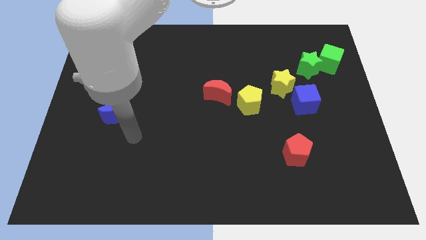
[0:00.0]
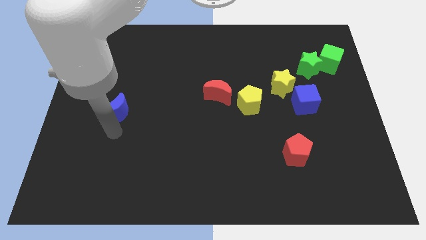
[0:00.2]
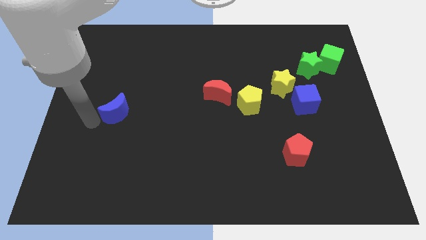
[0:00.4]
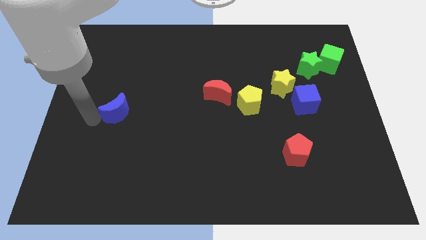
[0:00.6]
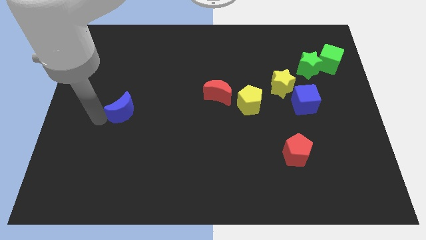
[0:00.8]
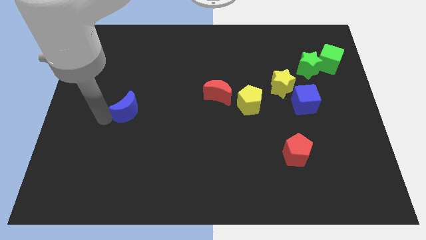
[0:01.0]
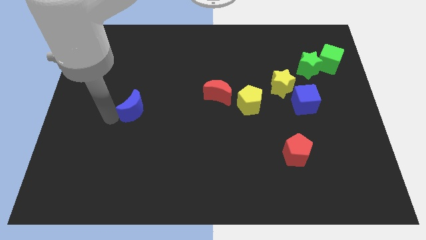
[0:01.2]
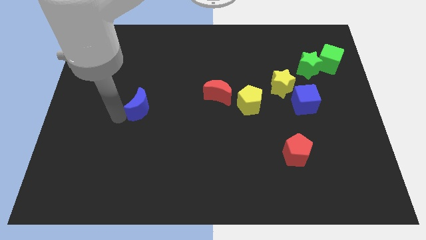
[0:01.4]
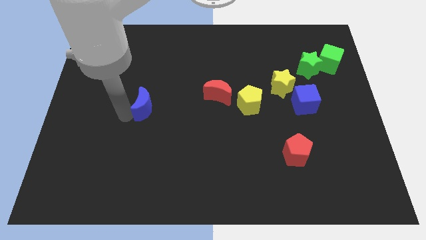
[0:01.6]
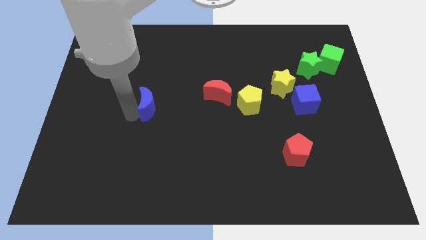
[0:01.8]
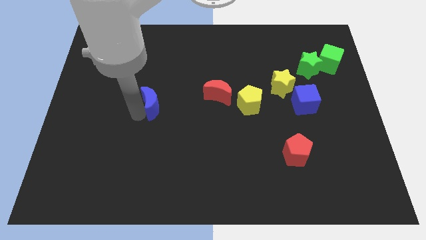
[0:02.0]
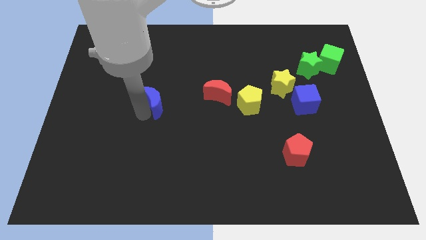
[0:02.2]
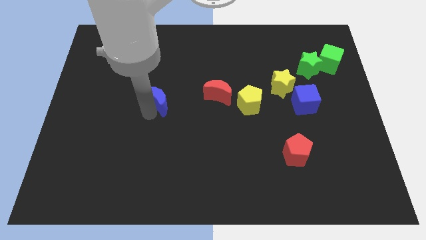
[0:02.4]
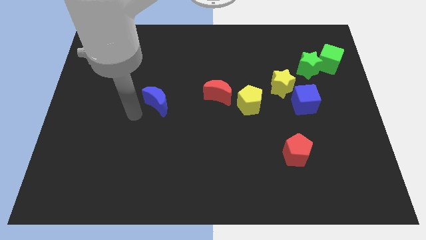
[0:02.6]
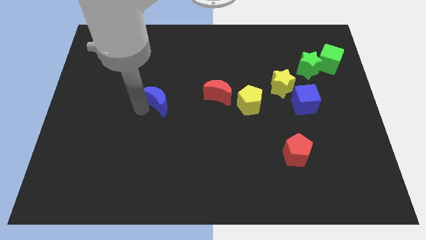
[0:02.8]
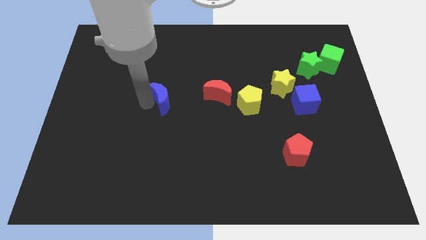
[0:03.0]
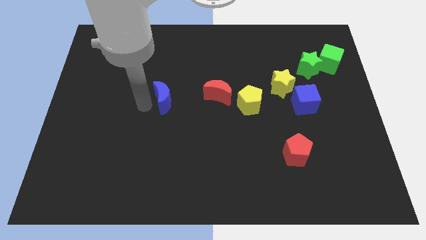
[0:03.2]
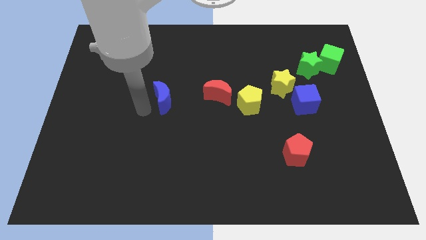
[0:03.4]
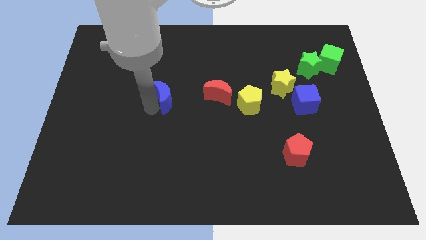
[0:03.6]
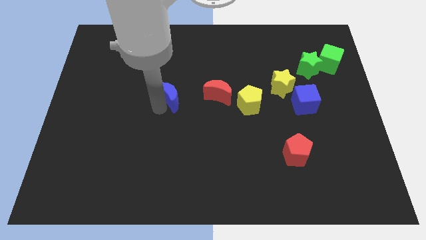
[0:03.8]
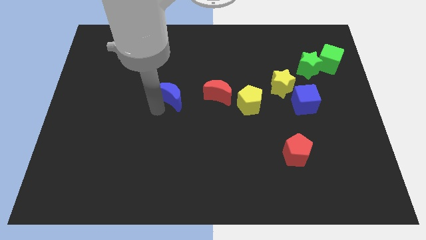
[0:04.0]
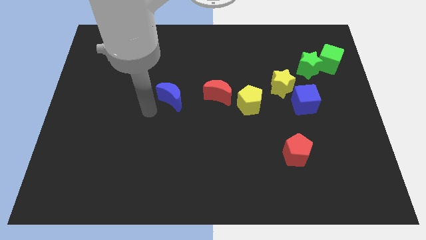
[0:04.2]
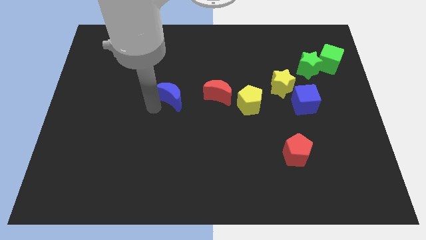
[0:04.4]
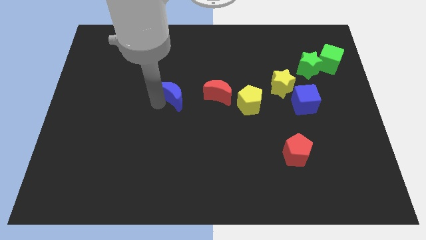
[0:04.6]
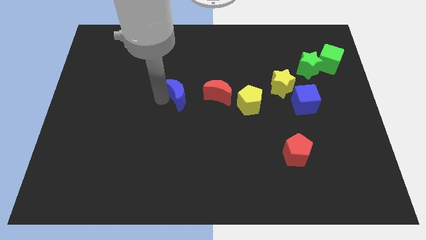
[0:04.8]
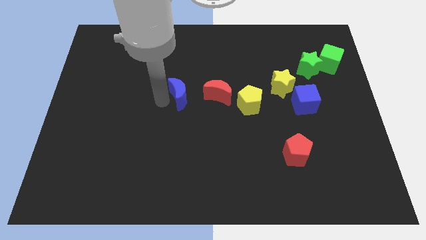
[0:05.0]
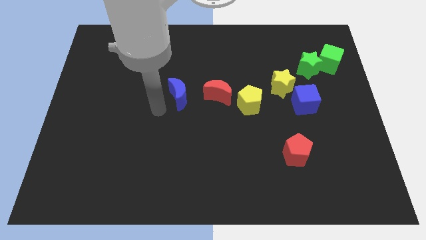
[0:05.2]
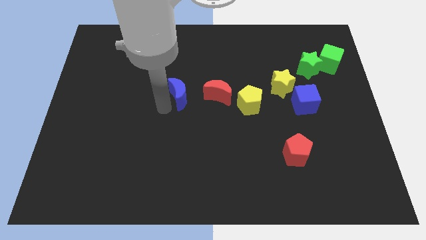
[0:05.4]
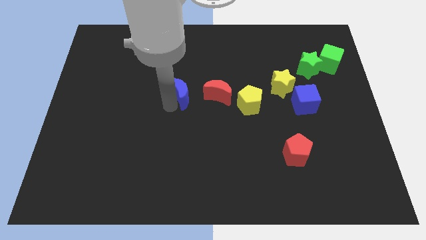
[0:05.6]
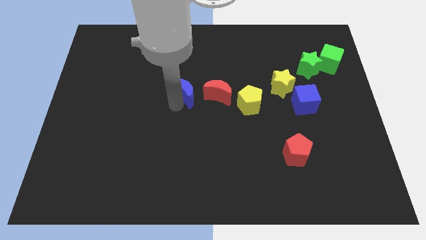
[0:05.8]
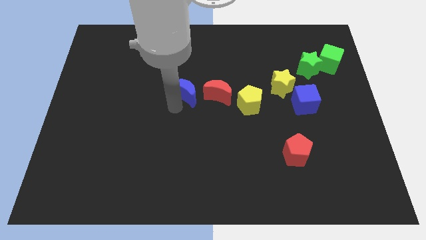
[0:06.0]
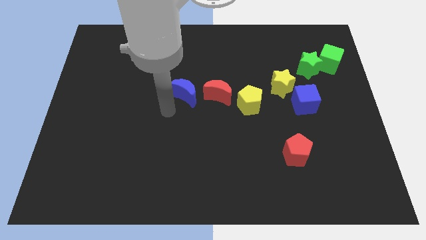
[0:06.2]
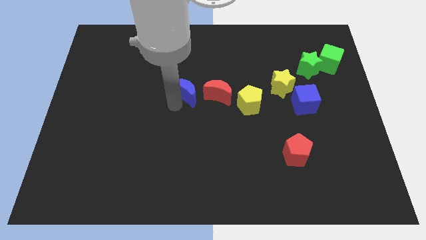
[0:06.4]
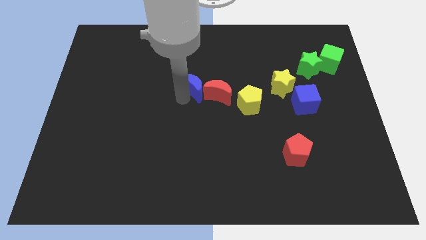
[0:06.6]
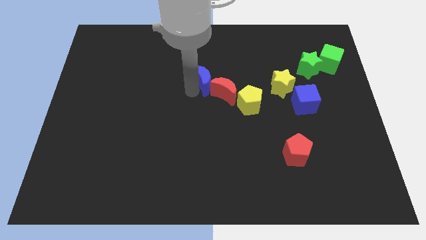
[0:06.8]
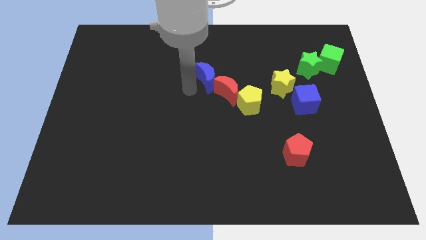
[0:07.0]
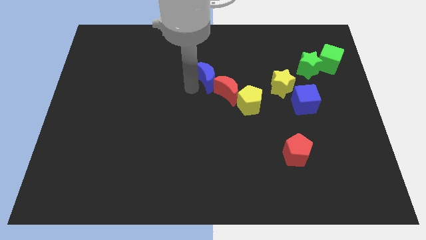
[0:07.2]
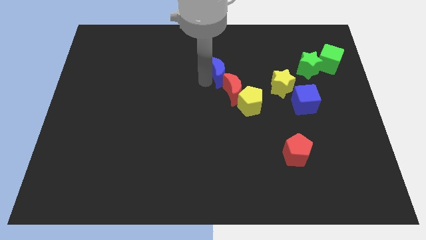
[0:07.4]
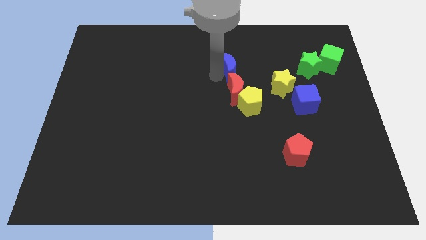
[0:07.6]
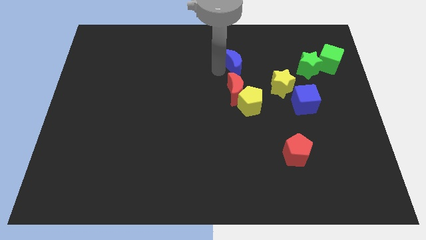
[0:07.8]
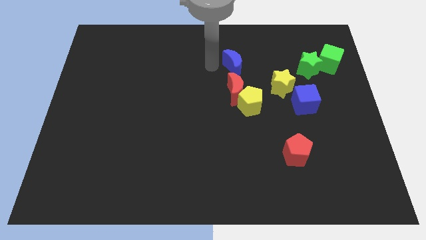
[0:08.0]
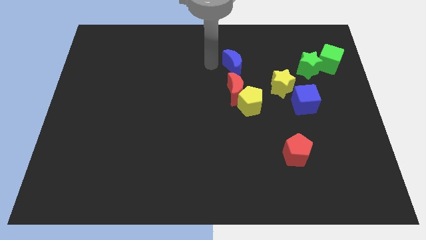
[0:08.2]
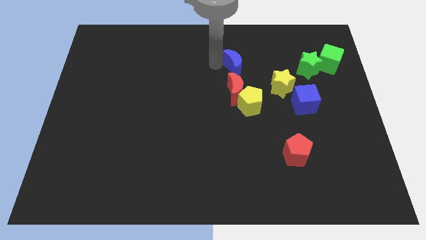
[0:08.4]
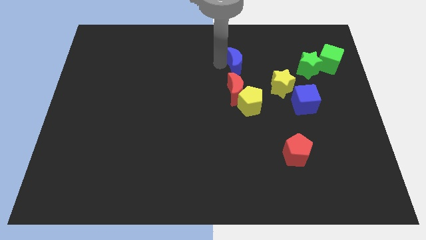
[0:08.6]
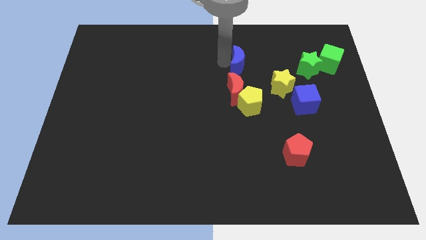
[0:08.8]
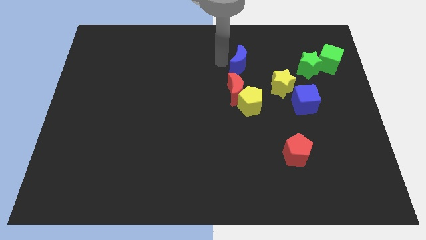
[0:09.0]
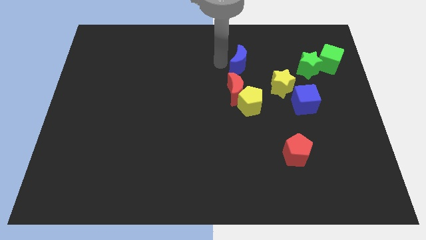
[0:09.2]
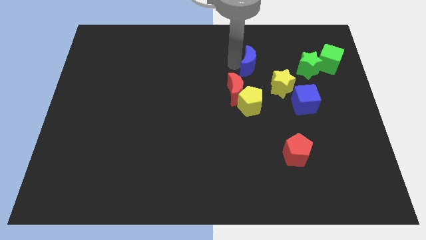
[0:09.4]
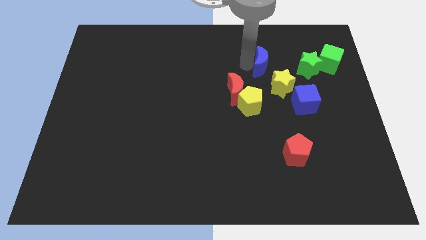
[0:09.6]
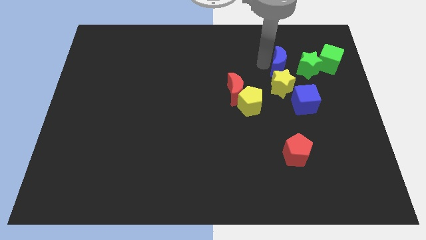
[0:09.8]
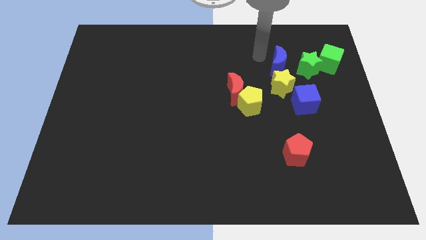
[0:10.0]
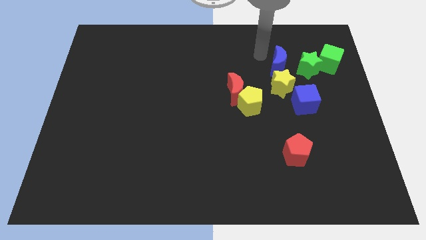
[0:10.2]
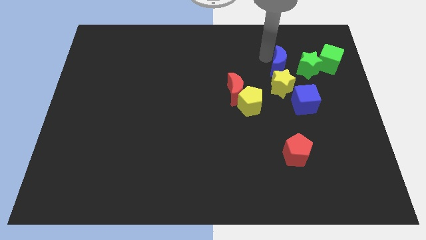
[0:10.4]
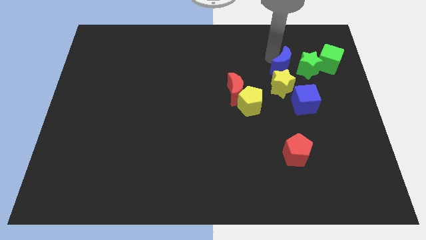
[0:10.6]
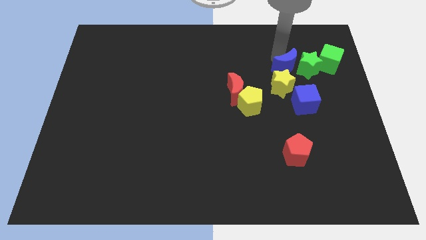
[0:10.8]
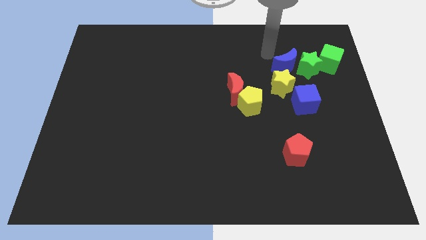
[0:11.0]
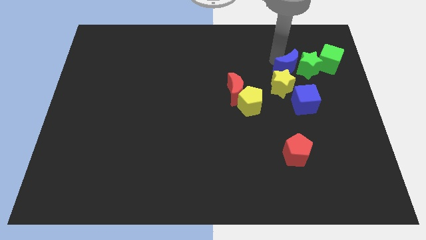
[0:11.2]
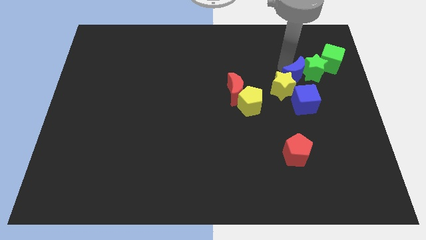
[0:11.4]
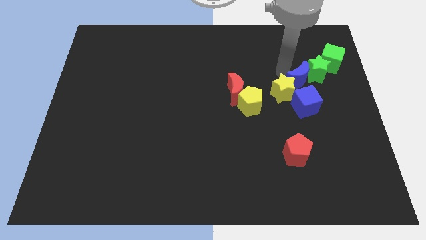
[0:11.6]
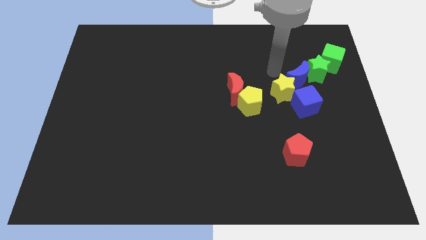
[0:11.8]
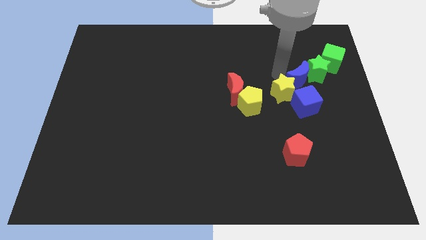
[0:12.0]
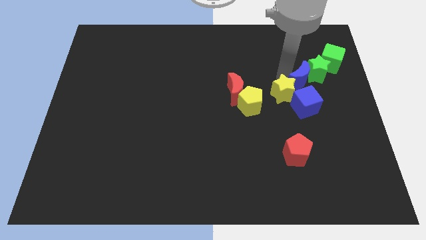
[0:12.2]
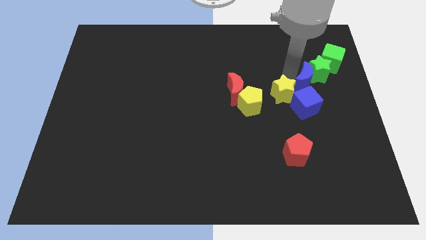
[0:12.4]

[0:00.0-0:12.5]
slide the blue moon diagonally up and to the right of the blue cube

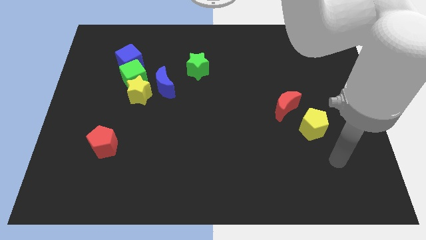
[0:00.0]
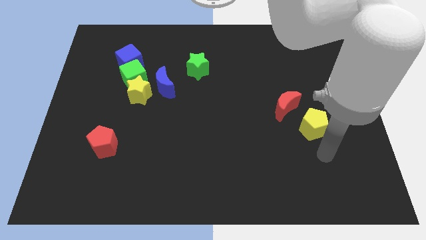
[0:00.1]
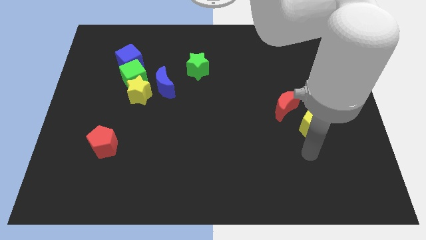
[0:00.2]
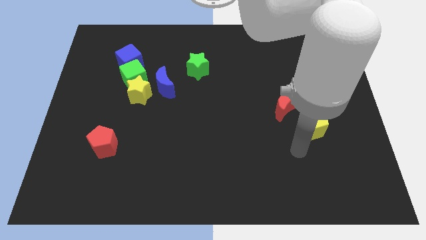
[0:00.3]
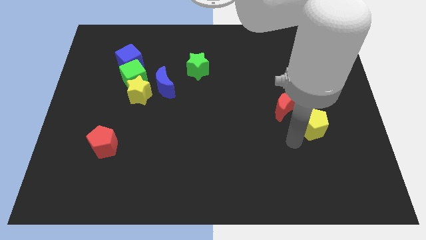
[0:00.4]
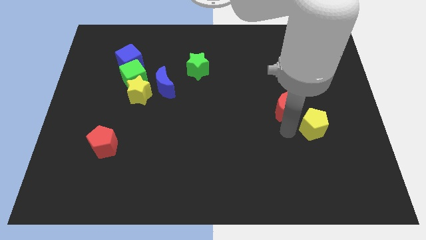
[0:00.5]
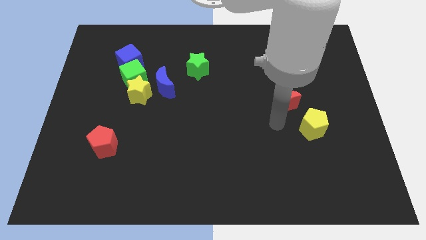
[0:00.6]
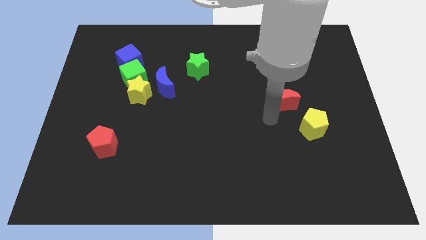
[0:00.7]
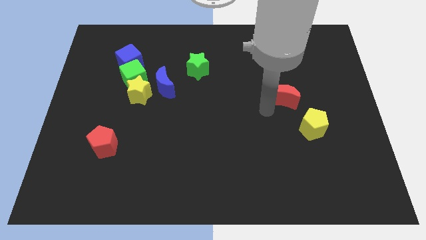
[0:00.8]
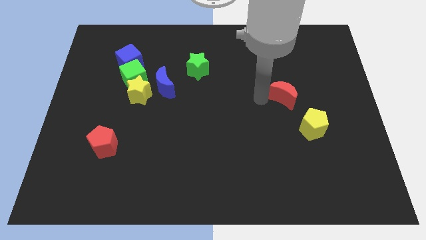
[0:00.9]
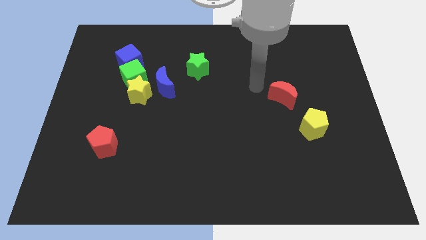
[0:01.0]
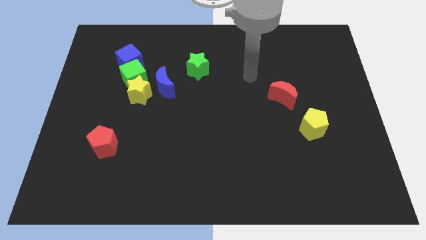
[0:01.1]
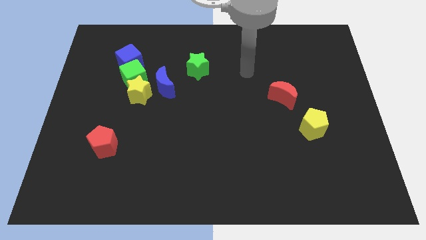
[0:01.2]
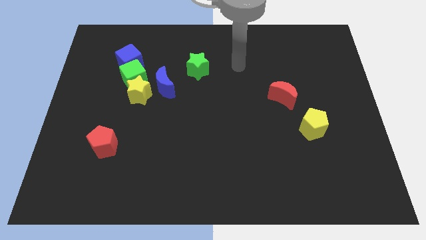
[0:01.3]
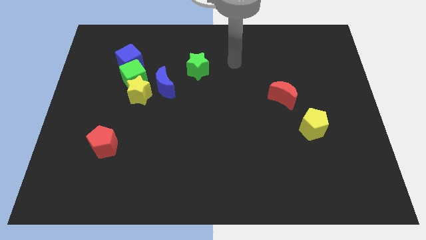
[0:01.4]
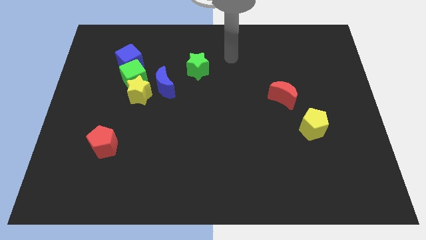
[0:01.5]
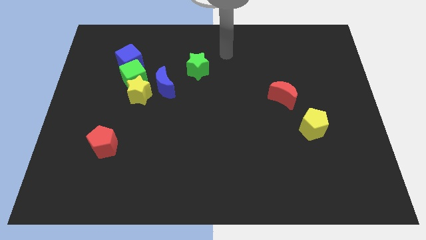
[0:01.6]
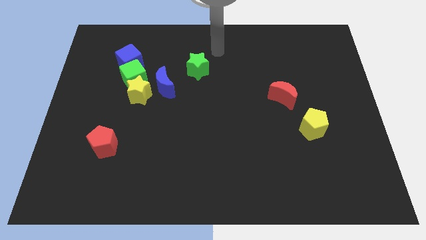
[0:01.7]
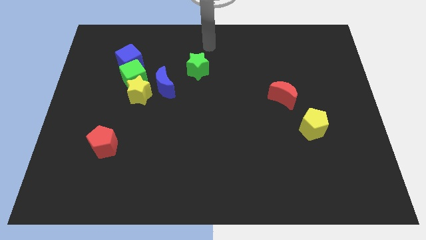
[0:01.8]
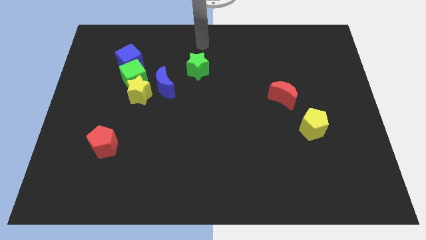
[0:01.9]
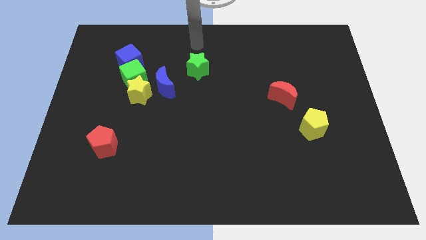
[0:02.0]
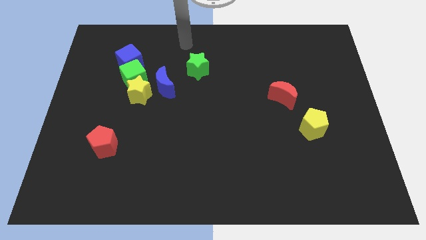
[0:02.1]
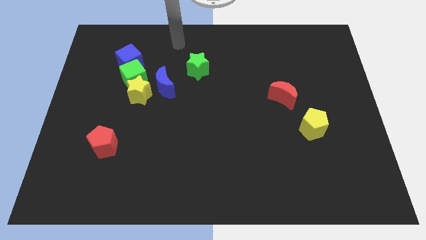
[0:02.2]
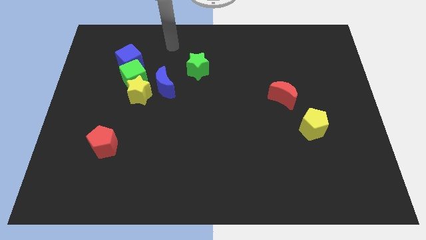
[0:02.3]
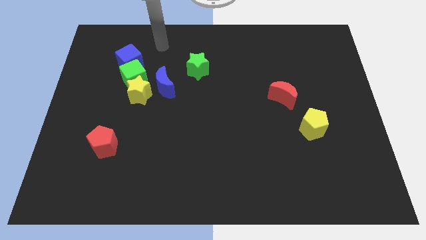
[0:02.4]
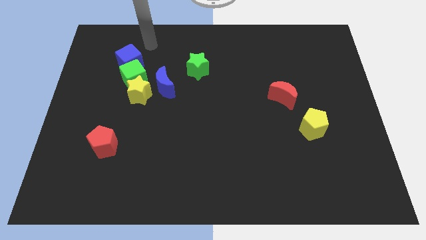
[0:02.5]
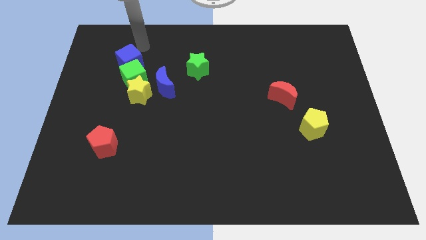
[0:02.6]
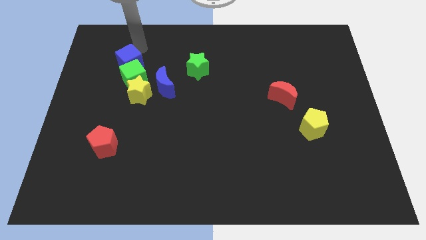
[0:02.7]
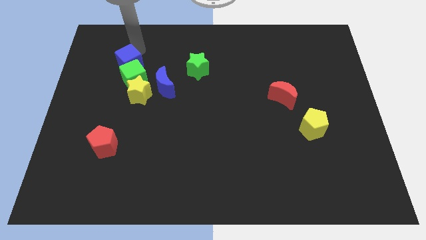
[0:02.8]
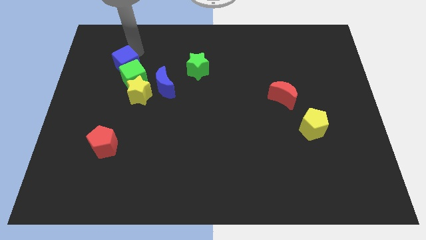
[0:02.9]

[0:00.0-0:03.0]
slide the blue cube to the top left side of the yellow star
